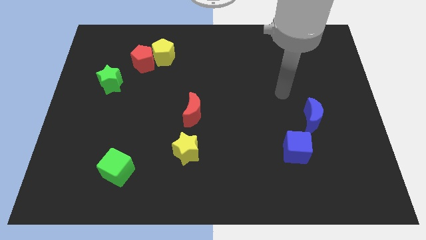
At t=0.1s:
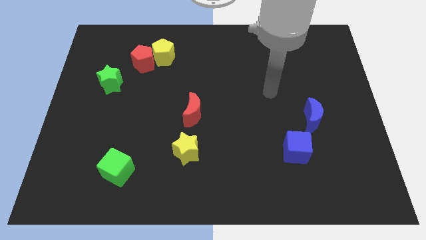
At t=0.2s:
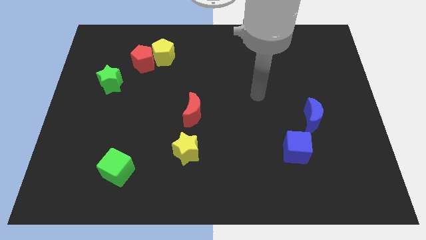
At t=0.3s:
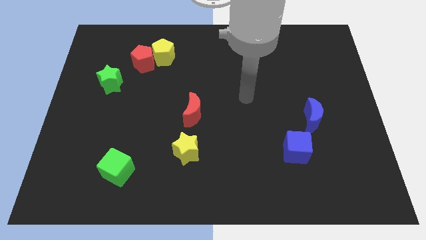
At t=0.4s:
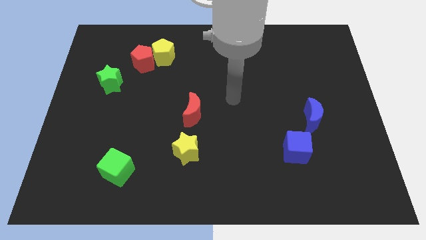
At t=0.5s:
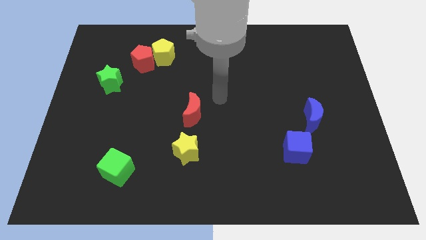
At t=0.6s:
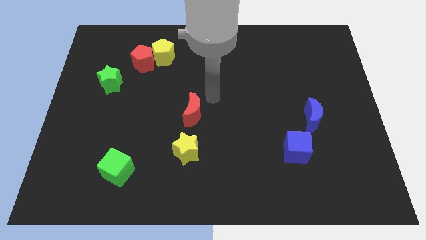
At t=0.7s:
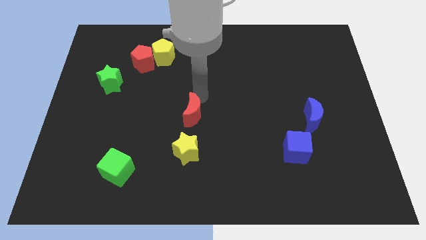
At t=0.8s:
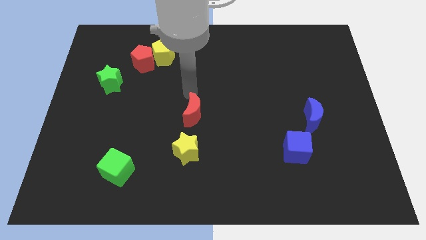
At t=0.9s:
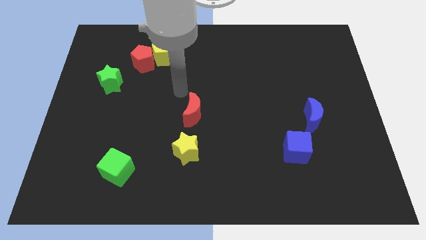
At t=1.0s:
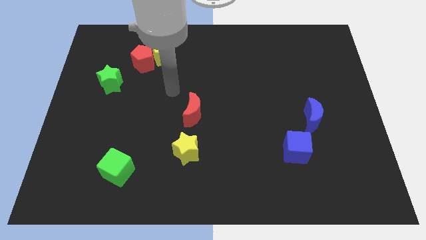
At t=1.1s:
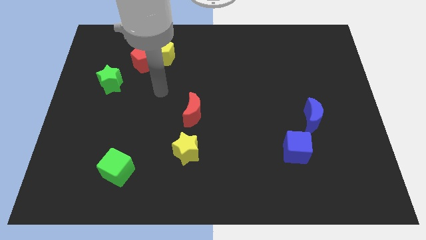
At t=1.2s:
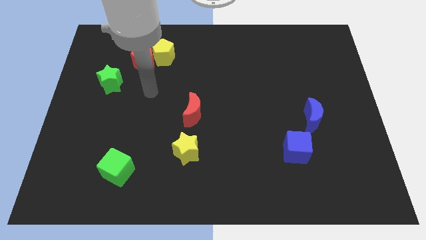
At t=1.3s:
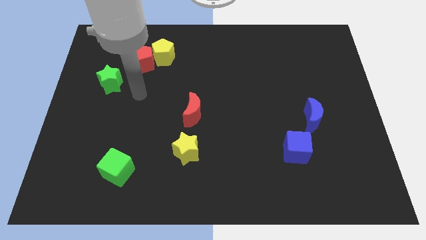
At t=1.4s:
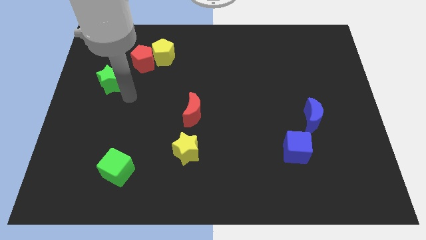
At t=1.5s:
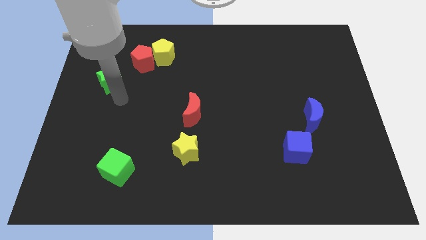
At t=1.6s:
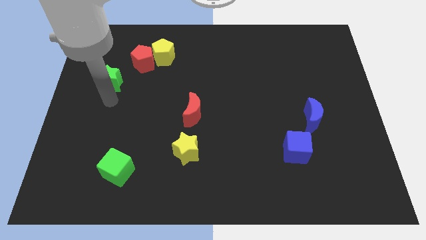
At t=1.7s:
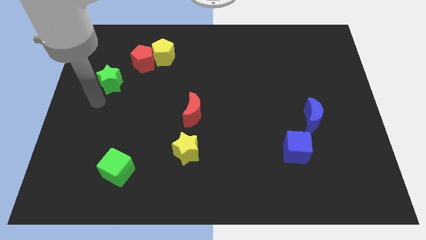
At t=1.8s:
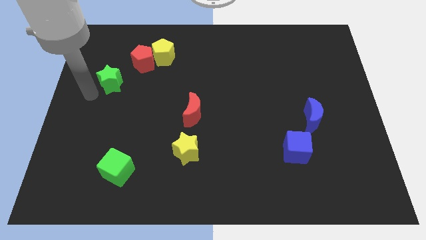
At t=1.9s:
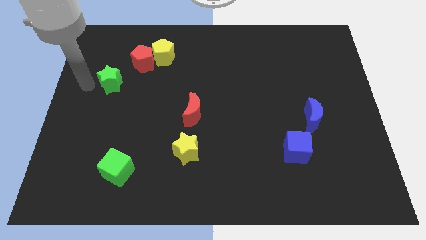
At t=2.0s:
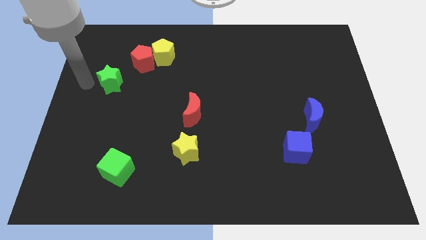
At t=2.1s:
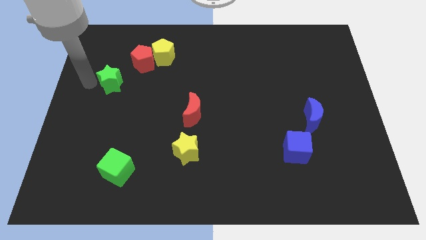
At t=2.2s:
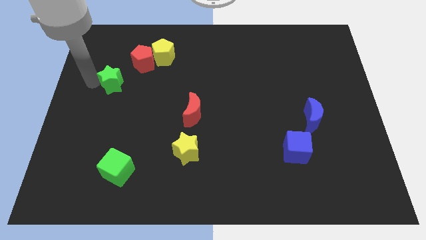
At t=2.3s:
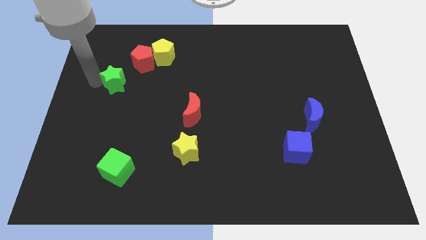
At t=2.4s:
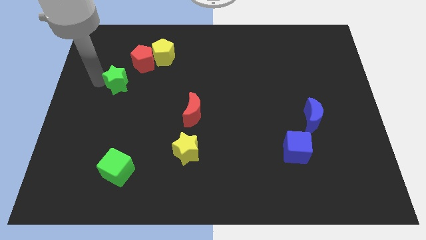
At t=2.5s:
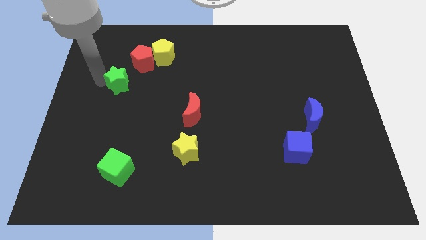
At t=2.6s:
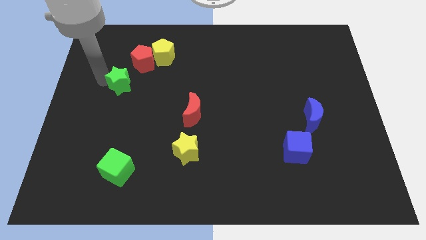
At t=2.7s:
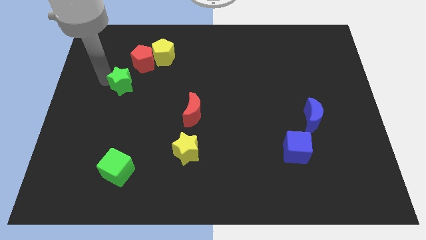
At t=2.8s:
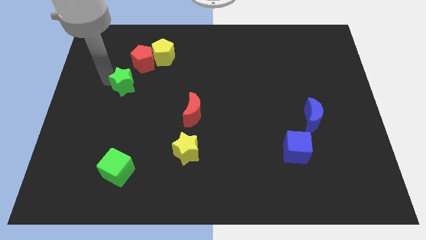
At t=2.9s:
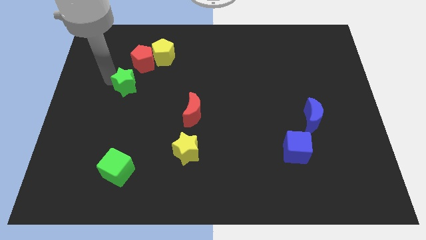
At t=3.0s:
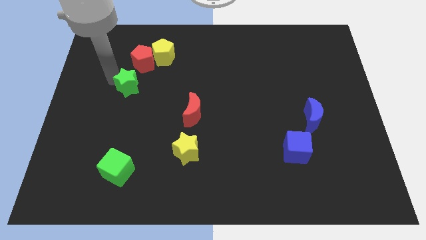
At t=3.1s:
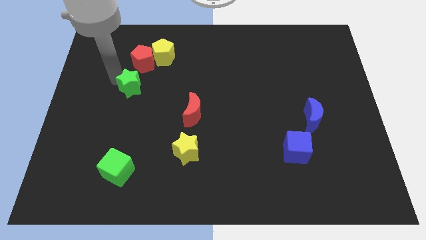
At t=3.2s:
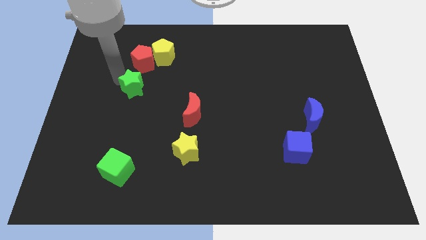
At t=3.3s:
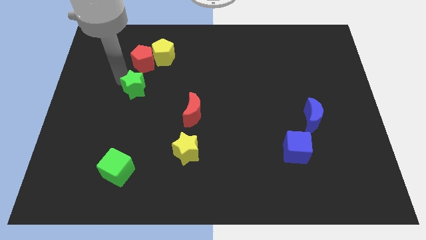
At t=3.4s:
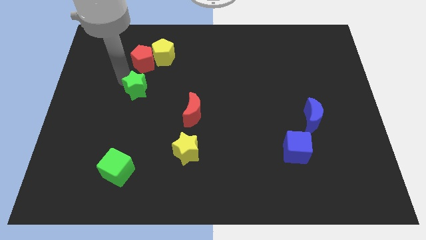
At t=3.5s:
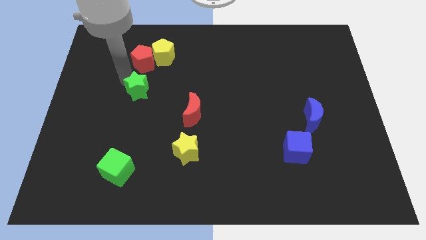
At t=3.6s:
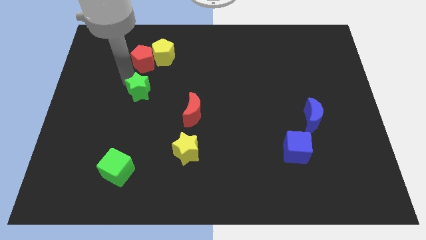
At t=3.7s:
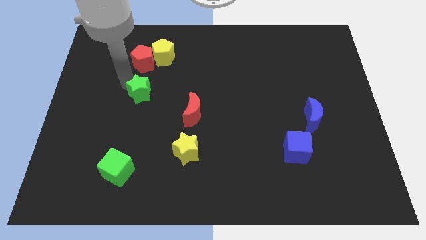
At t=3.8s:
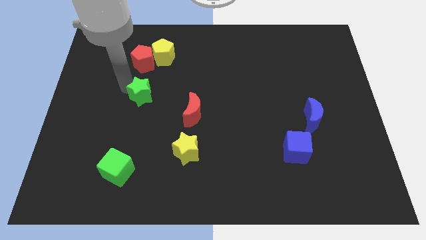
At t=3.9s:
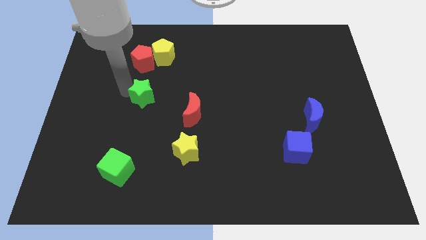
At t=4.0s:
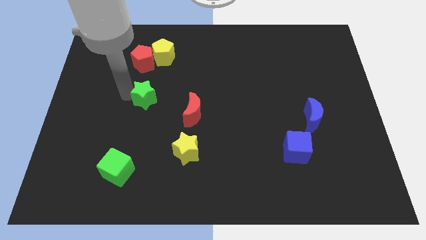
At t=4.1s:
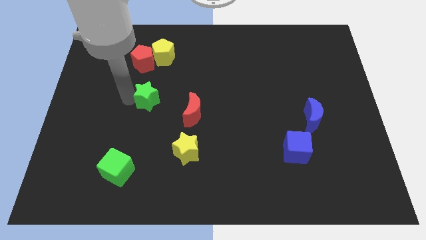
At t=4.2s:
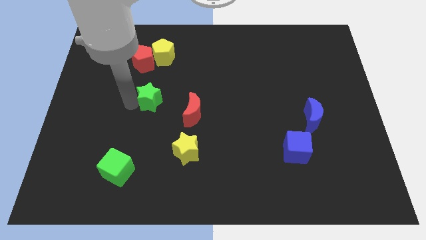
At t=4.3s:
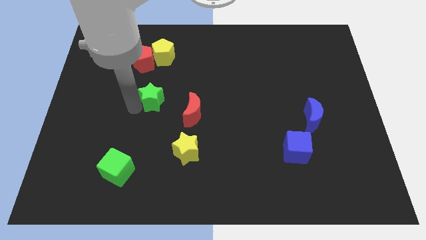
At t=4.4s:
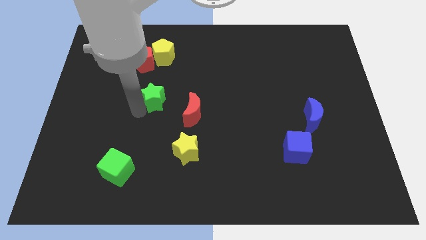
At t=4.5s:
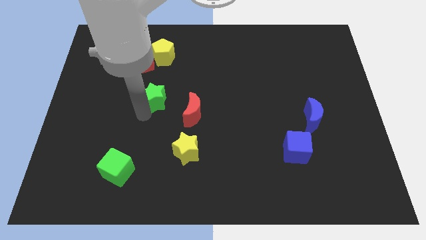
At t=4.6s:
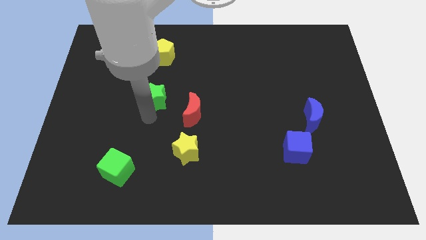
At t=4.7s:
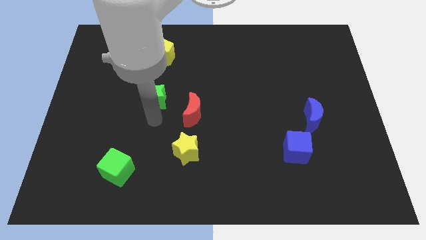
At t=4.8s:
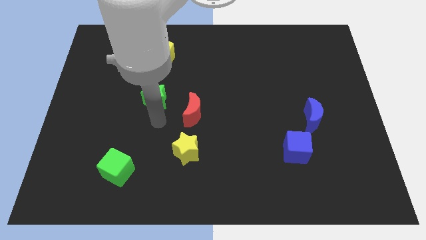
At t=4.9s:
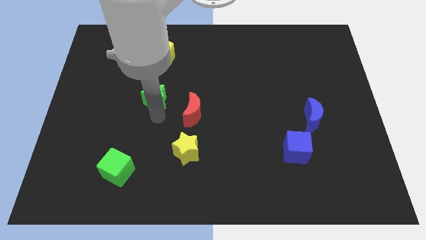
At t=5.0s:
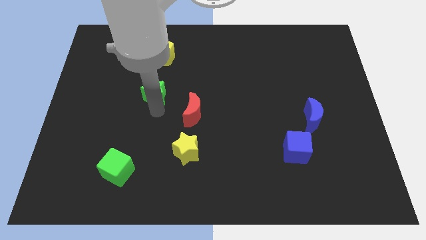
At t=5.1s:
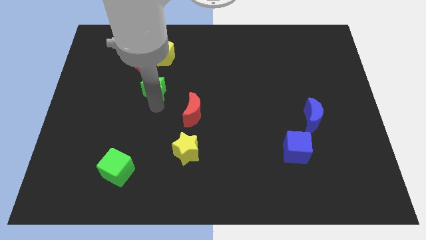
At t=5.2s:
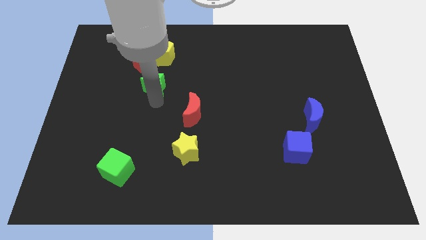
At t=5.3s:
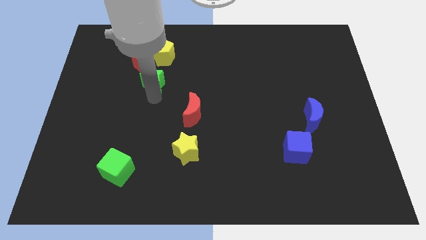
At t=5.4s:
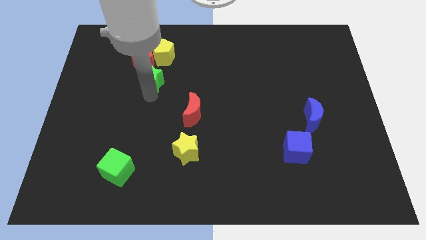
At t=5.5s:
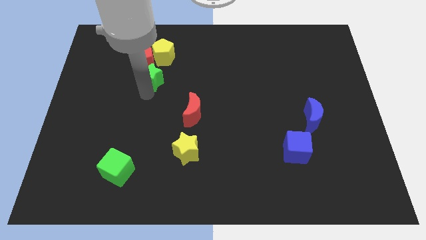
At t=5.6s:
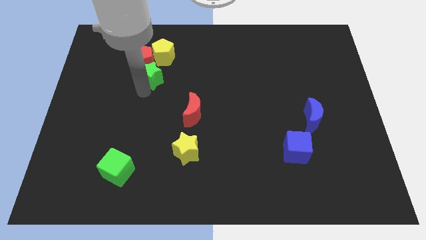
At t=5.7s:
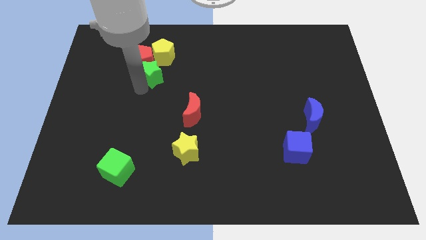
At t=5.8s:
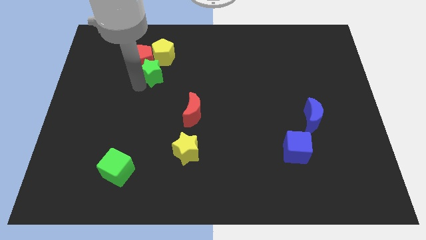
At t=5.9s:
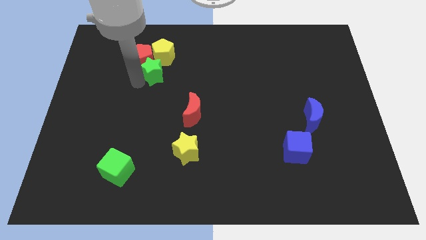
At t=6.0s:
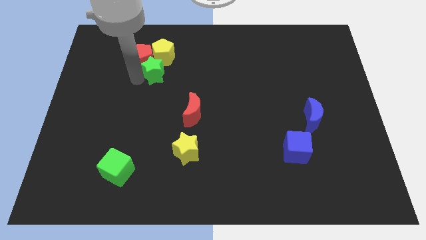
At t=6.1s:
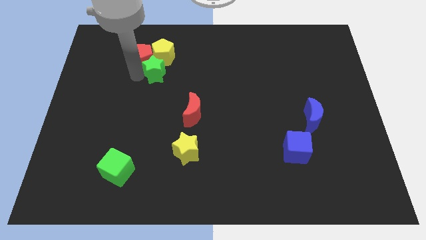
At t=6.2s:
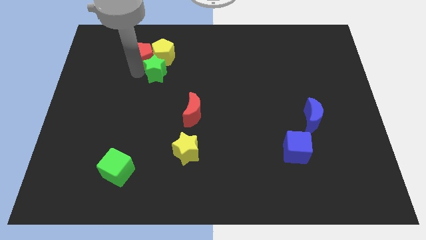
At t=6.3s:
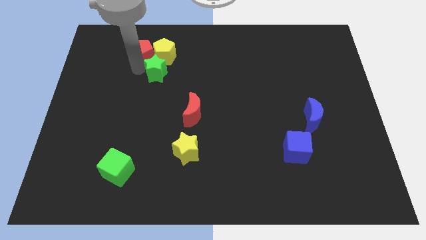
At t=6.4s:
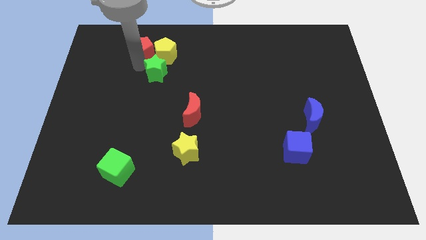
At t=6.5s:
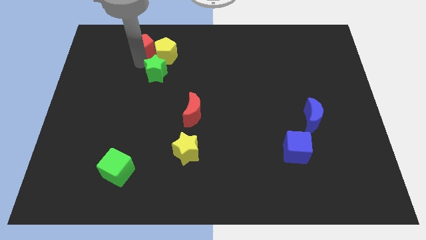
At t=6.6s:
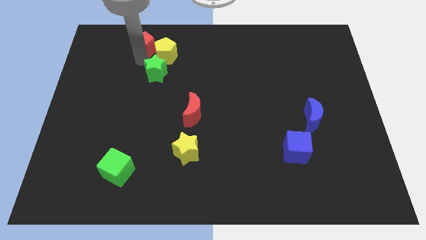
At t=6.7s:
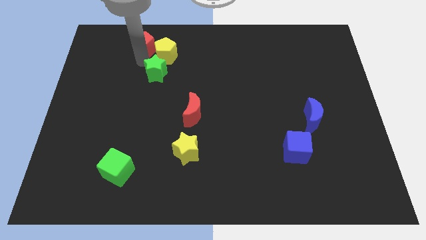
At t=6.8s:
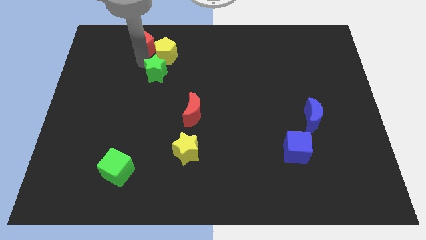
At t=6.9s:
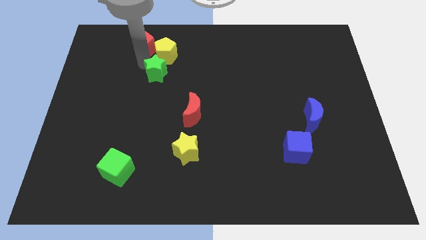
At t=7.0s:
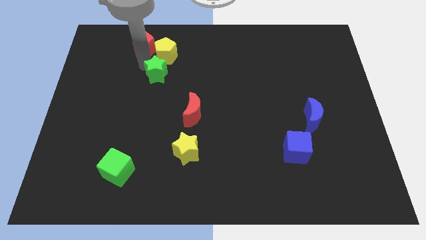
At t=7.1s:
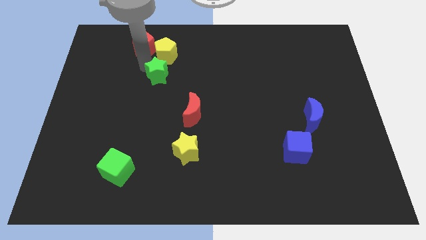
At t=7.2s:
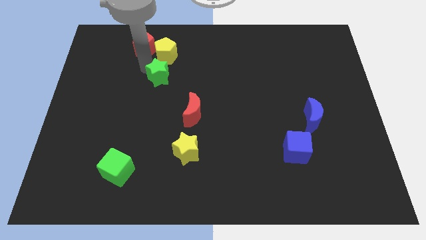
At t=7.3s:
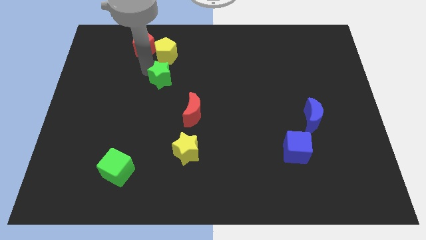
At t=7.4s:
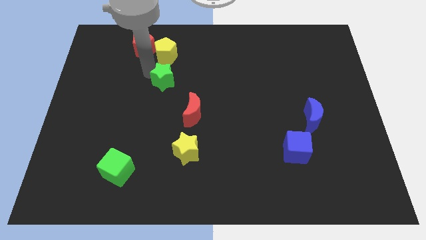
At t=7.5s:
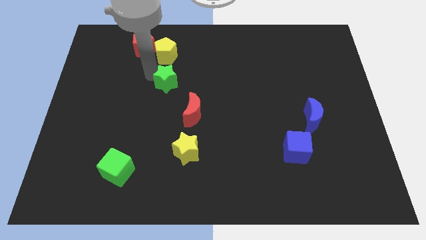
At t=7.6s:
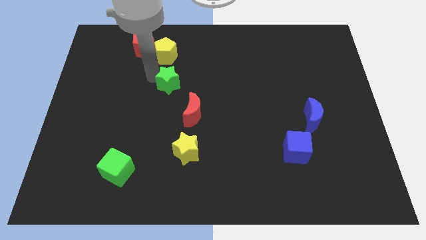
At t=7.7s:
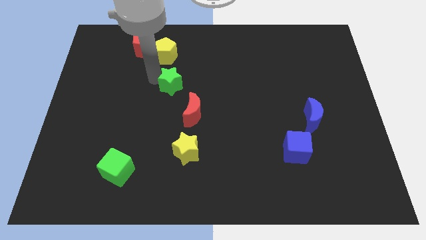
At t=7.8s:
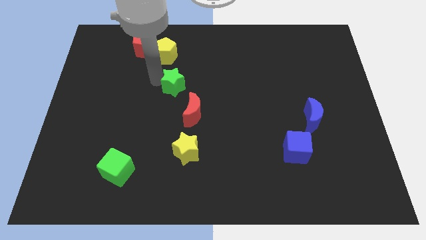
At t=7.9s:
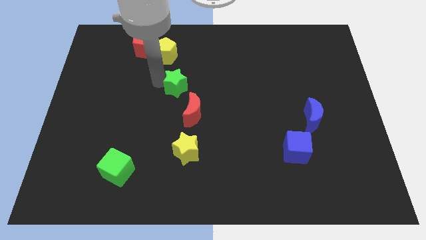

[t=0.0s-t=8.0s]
slide the green star to the top side of the red moon
